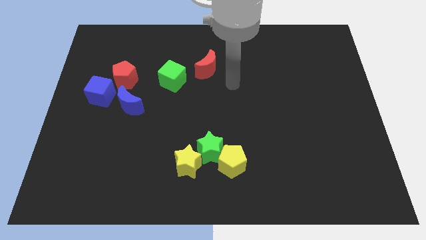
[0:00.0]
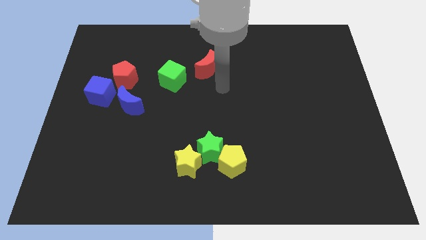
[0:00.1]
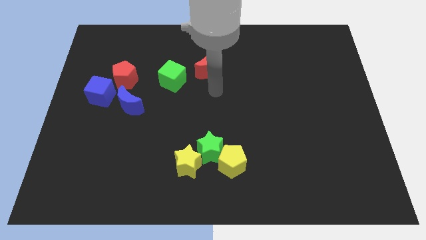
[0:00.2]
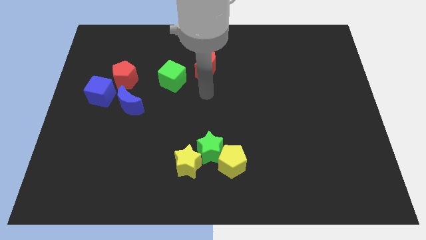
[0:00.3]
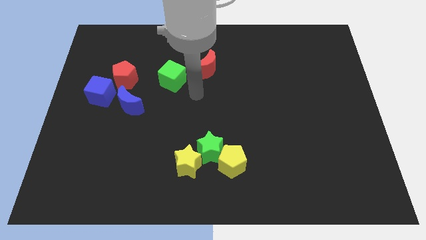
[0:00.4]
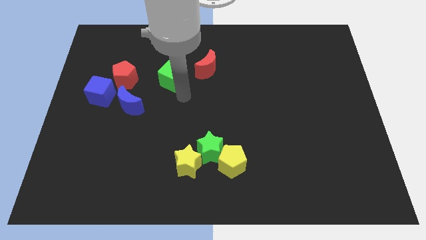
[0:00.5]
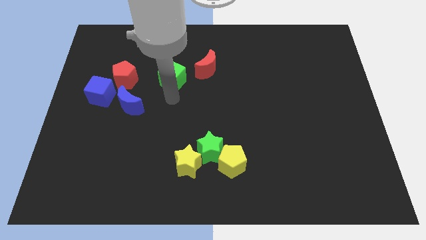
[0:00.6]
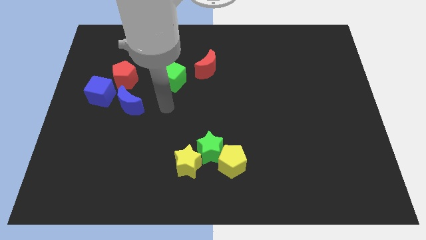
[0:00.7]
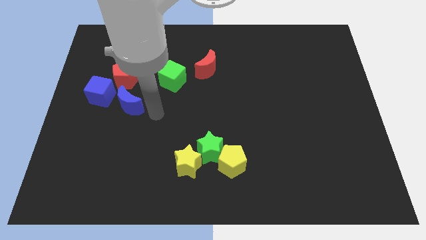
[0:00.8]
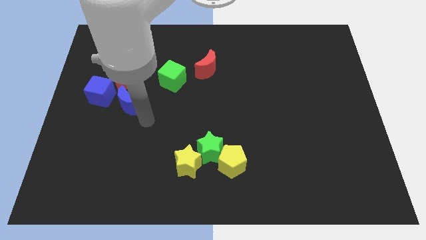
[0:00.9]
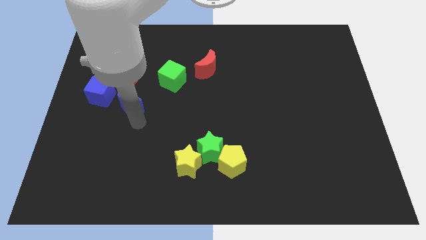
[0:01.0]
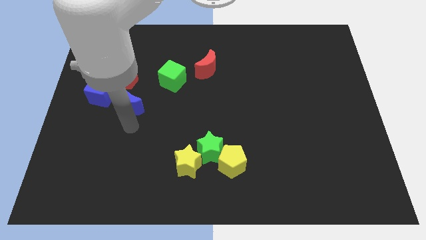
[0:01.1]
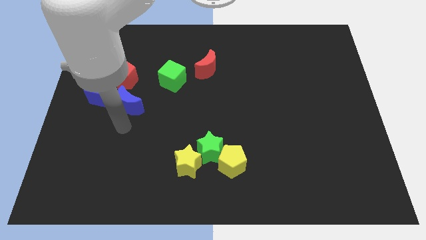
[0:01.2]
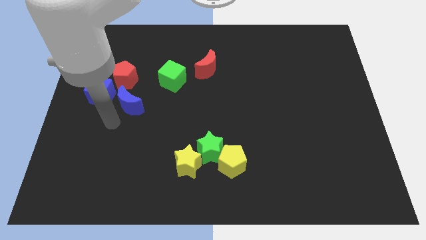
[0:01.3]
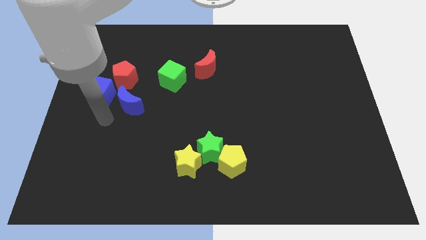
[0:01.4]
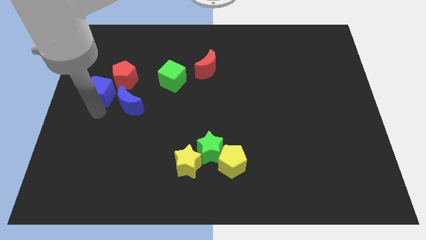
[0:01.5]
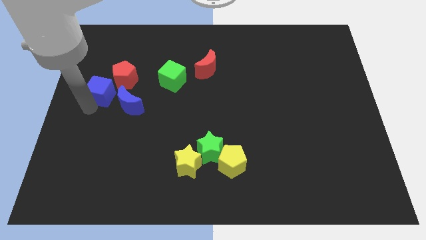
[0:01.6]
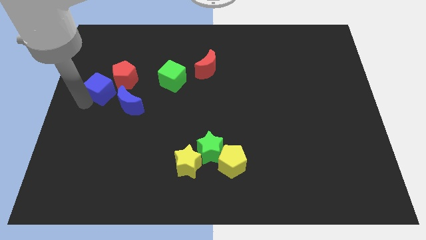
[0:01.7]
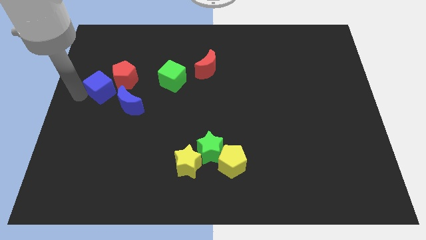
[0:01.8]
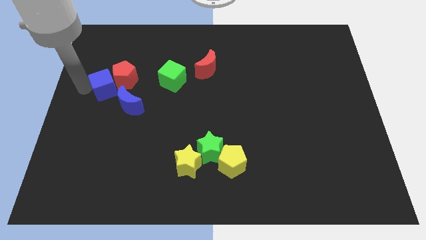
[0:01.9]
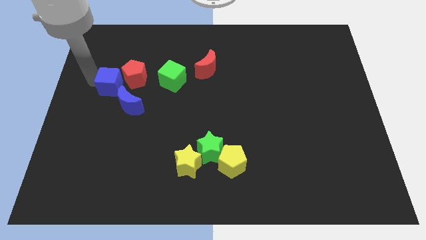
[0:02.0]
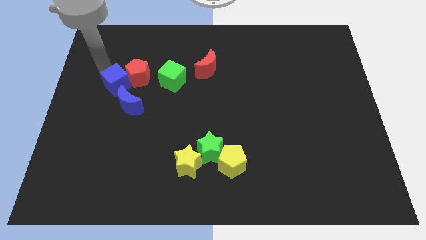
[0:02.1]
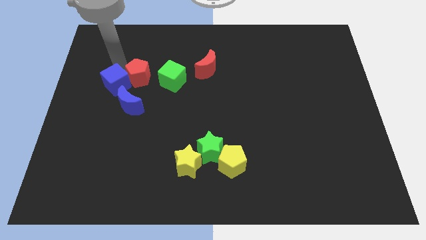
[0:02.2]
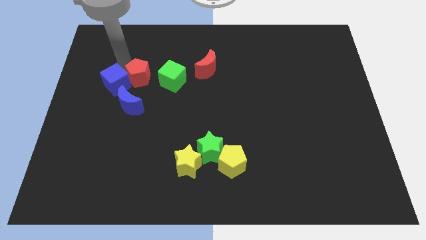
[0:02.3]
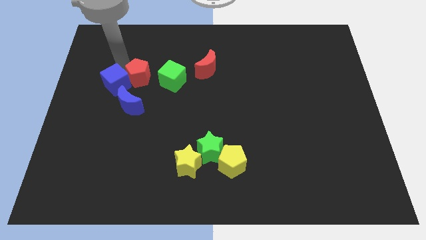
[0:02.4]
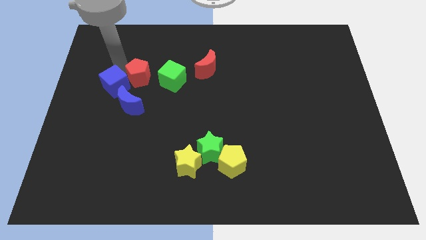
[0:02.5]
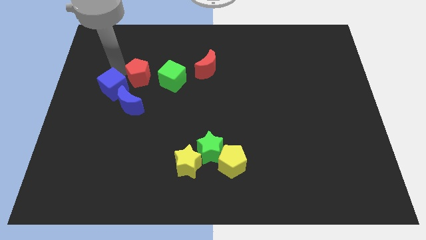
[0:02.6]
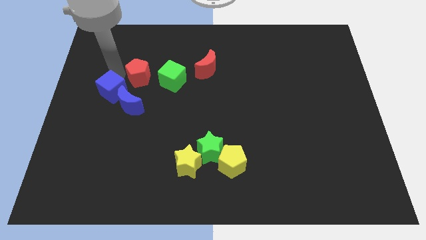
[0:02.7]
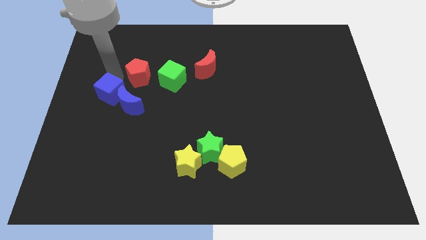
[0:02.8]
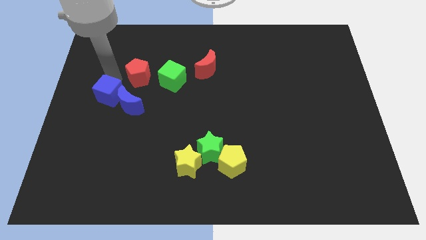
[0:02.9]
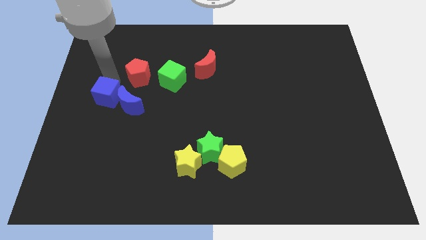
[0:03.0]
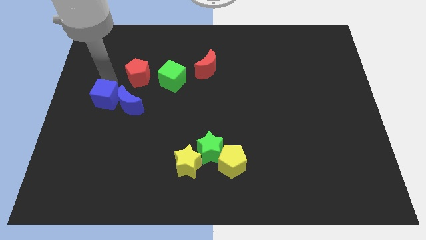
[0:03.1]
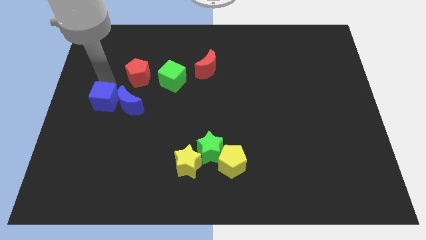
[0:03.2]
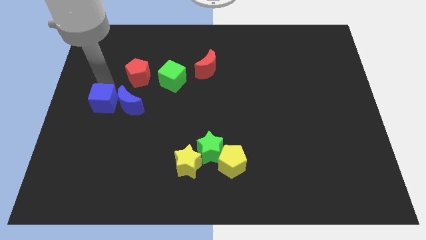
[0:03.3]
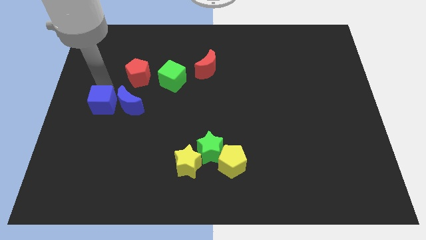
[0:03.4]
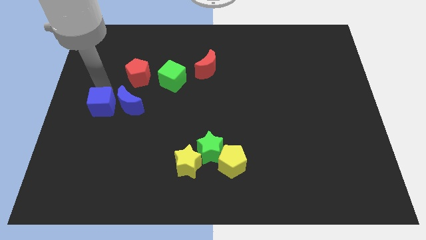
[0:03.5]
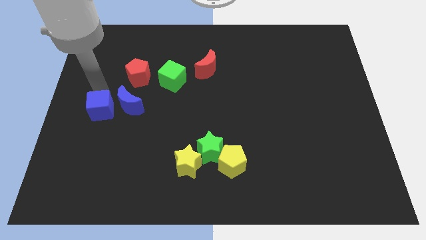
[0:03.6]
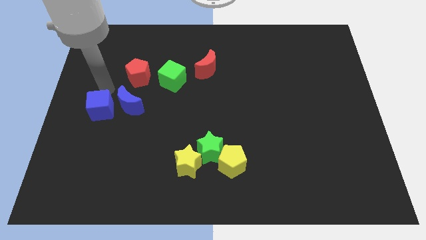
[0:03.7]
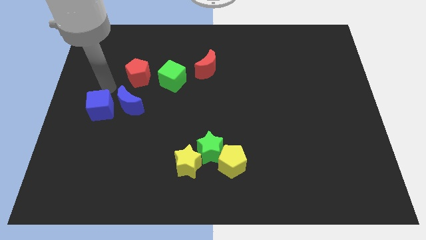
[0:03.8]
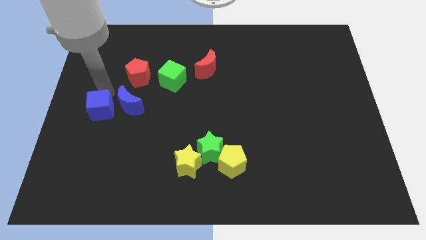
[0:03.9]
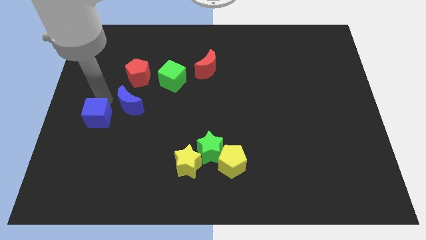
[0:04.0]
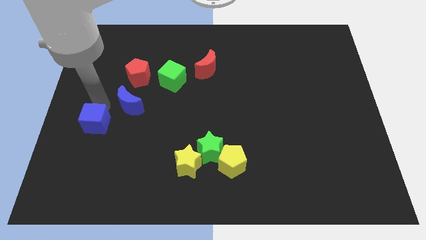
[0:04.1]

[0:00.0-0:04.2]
push the blue cube a little bit down

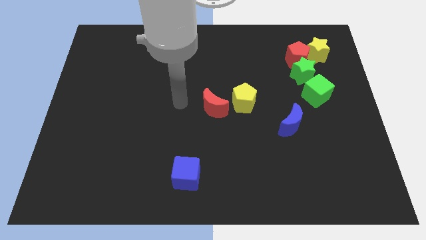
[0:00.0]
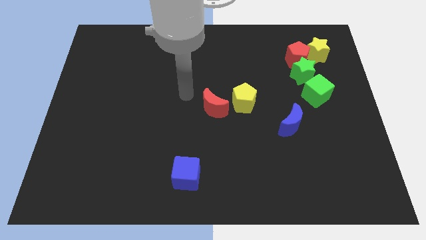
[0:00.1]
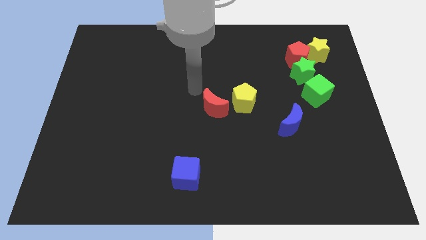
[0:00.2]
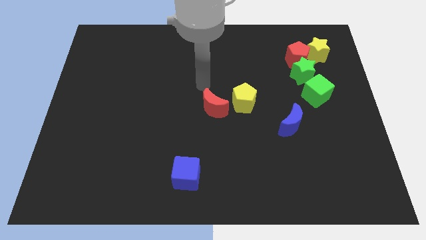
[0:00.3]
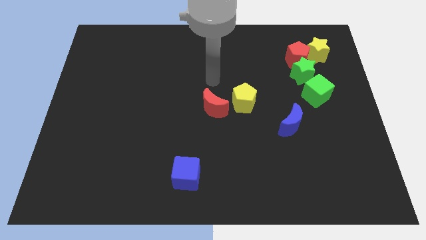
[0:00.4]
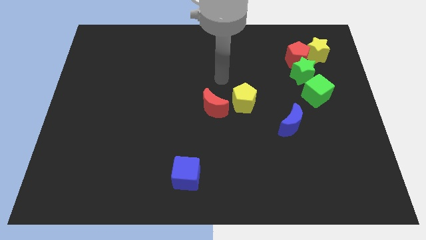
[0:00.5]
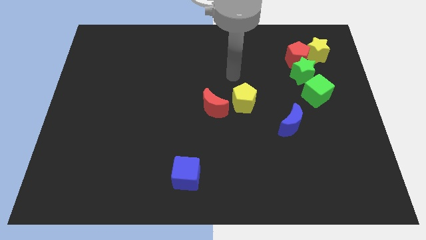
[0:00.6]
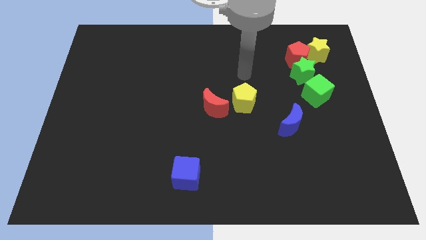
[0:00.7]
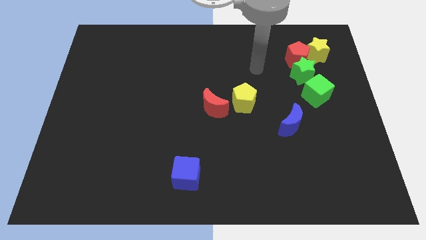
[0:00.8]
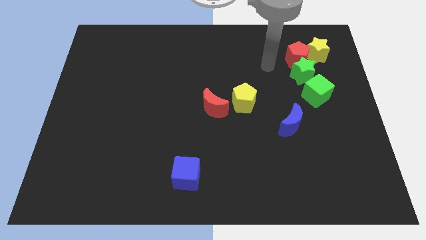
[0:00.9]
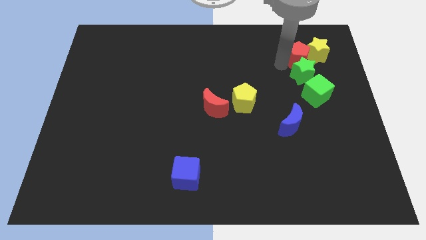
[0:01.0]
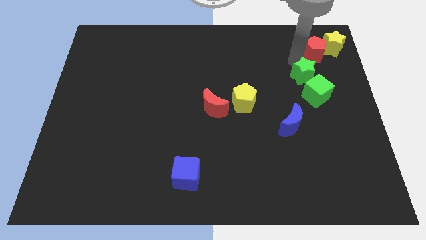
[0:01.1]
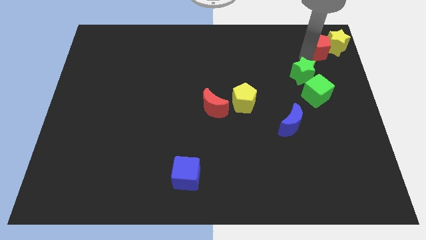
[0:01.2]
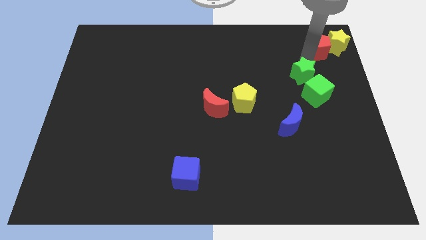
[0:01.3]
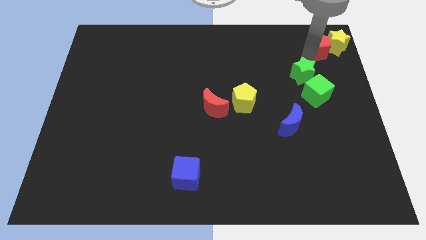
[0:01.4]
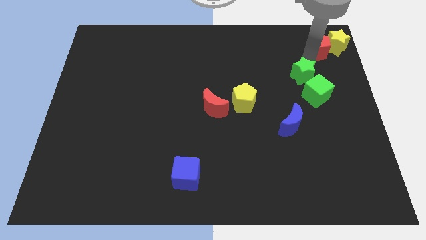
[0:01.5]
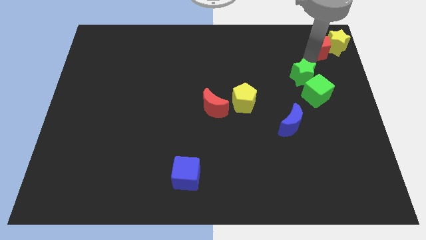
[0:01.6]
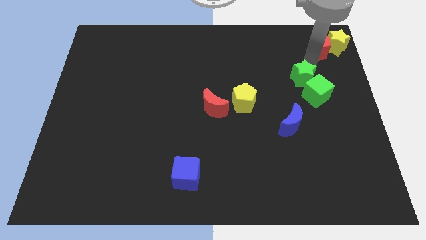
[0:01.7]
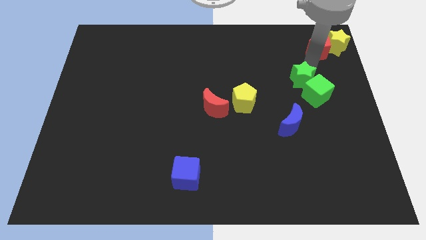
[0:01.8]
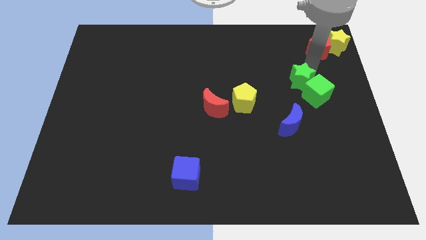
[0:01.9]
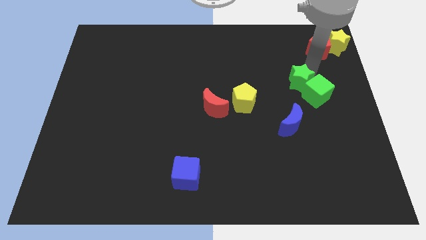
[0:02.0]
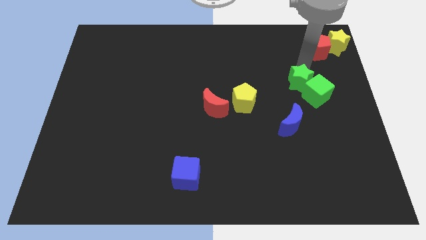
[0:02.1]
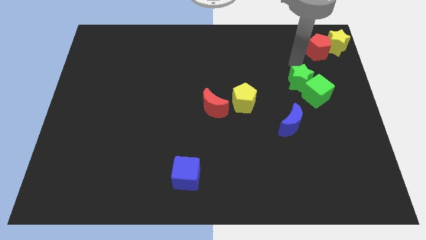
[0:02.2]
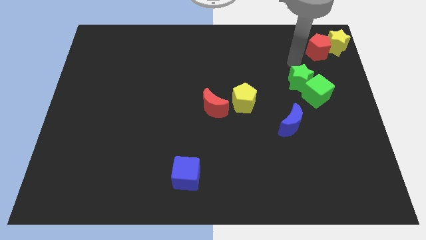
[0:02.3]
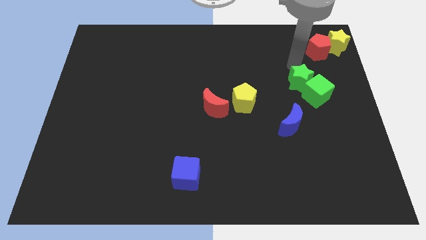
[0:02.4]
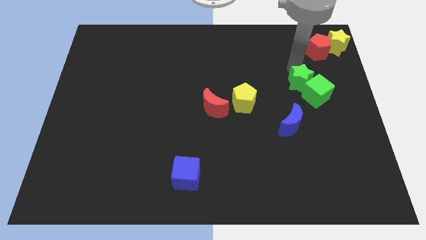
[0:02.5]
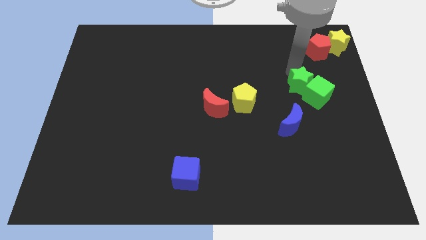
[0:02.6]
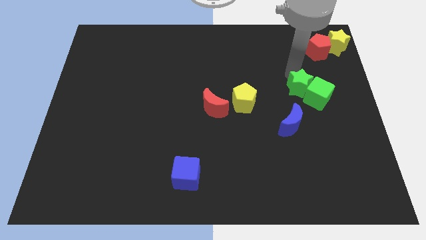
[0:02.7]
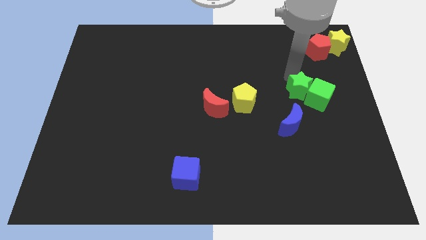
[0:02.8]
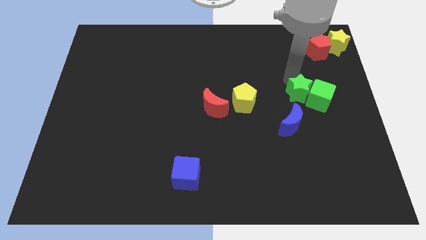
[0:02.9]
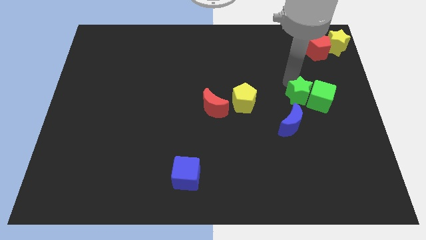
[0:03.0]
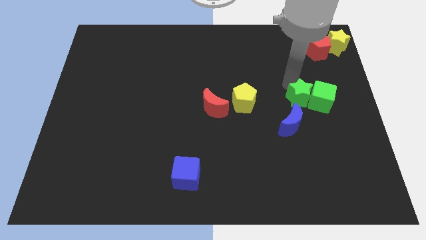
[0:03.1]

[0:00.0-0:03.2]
move the green star somewhat downwards

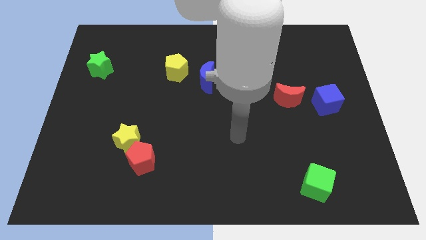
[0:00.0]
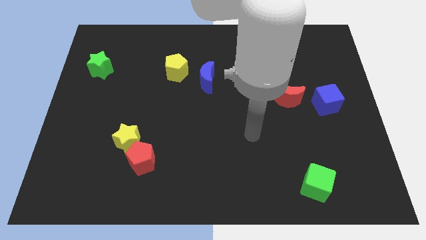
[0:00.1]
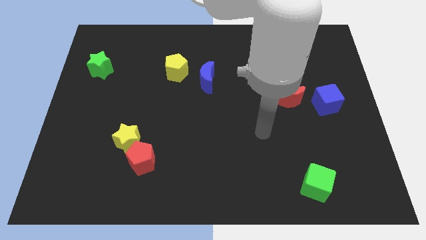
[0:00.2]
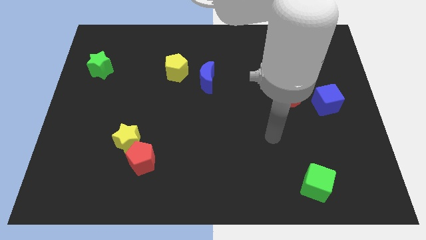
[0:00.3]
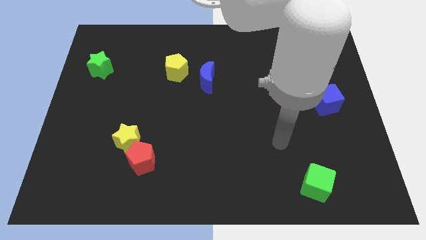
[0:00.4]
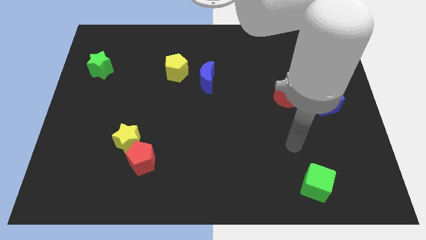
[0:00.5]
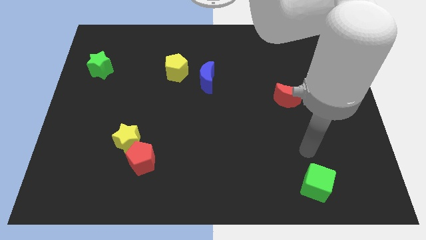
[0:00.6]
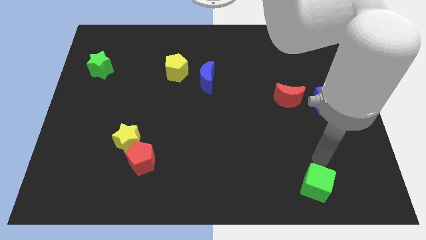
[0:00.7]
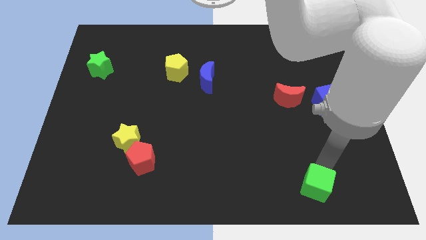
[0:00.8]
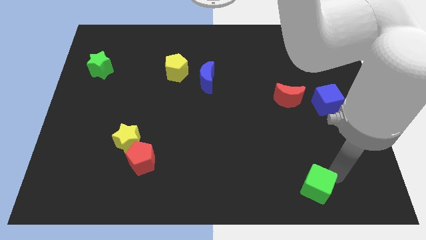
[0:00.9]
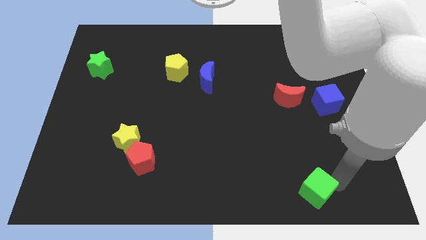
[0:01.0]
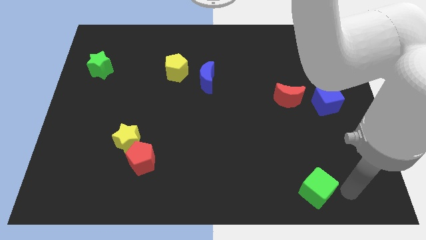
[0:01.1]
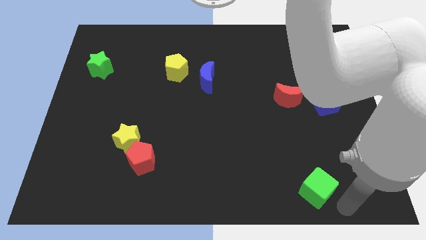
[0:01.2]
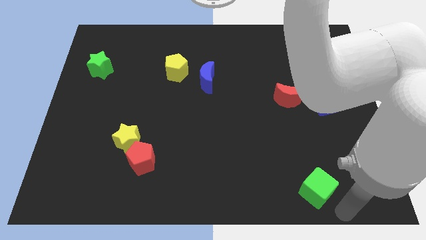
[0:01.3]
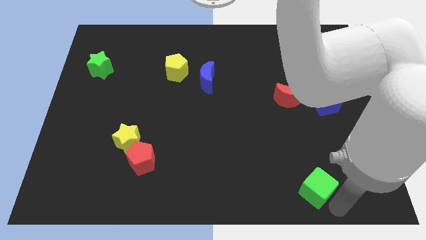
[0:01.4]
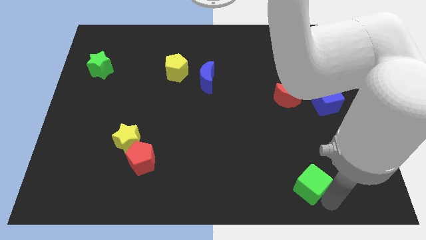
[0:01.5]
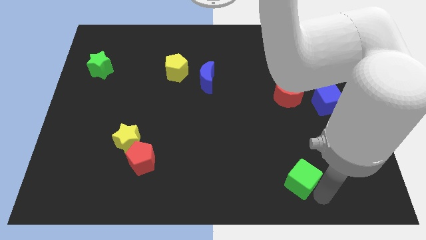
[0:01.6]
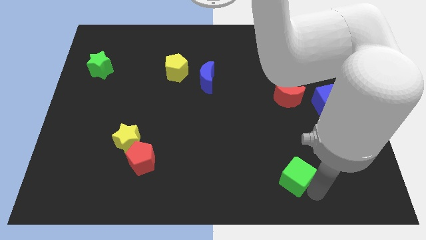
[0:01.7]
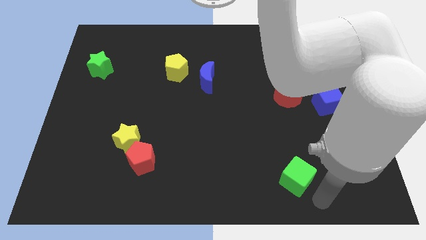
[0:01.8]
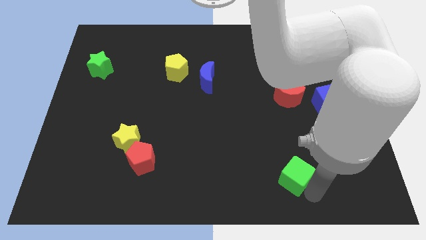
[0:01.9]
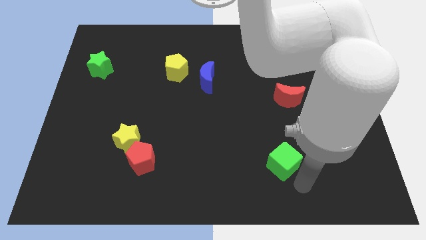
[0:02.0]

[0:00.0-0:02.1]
slightly slide the green cube upwards and left diagonally
